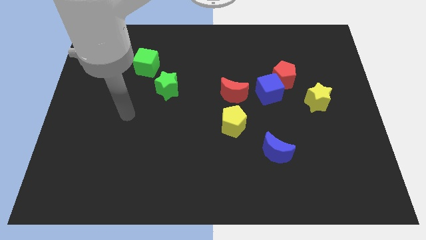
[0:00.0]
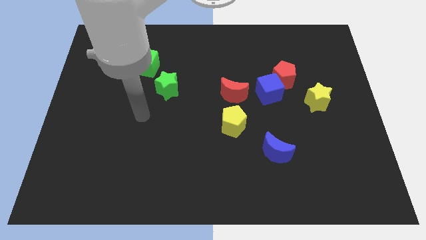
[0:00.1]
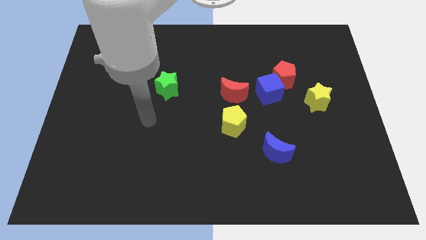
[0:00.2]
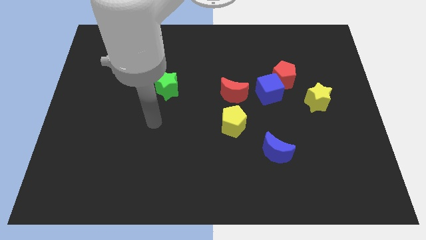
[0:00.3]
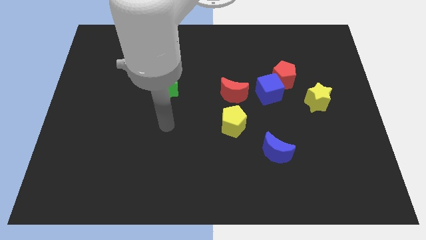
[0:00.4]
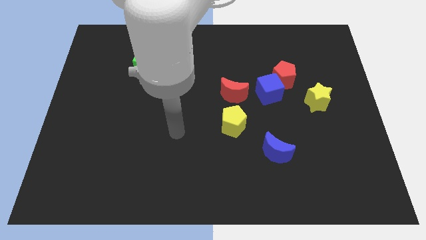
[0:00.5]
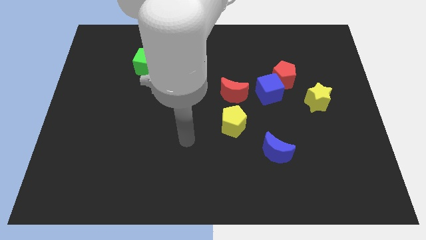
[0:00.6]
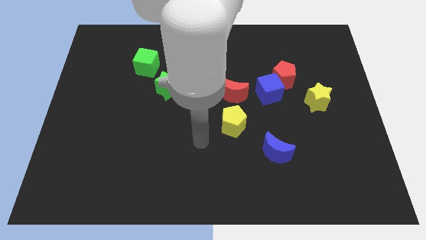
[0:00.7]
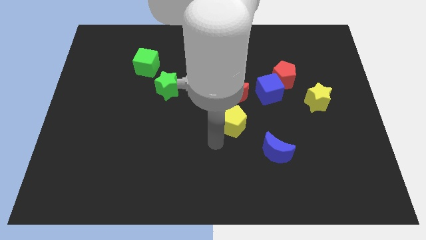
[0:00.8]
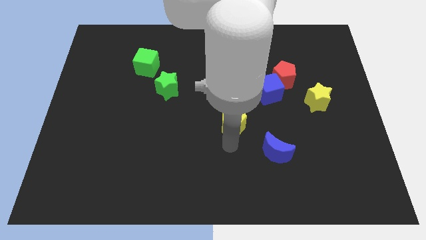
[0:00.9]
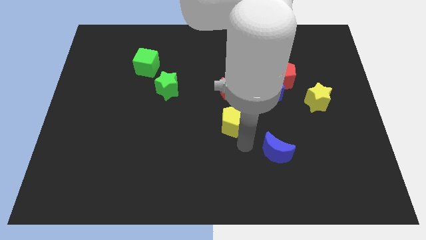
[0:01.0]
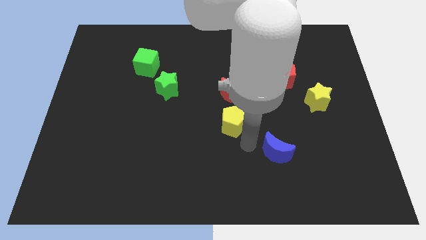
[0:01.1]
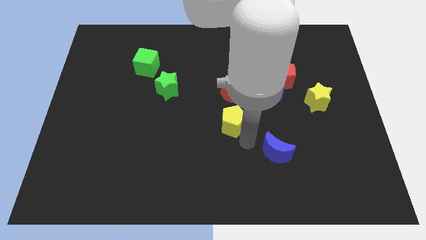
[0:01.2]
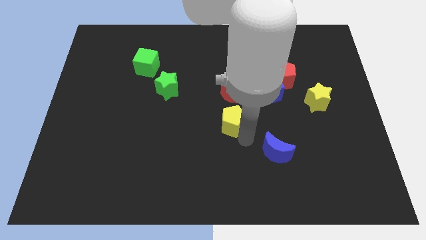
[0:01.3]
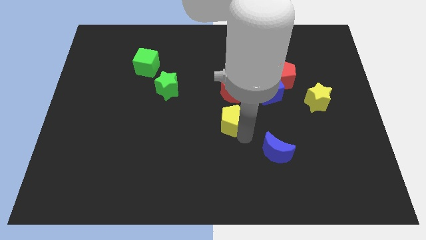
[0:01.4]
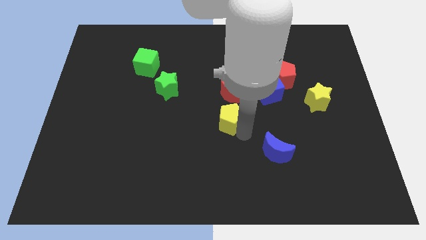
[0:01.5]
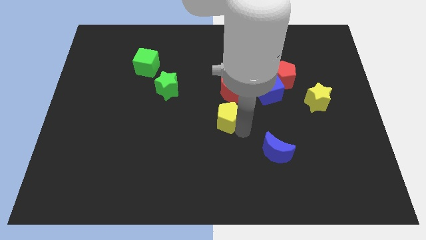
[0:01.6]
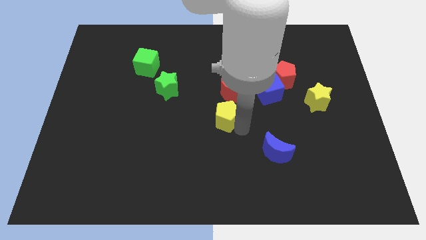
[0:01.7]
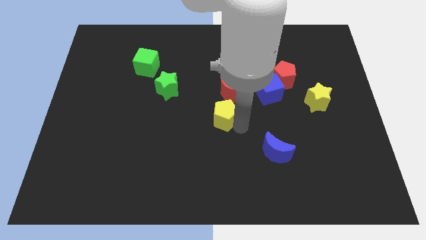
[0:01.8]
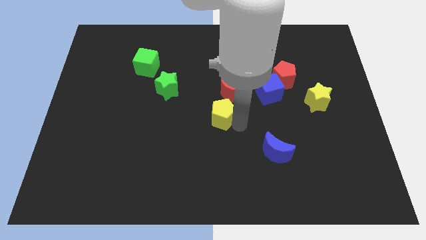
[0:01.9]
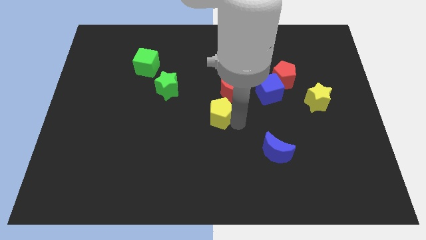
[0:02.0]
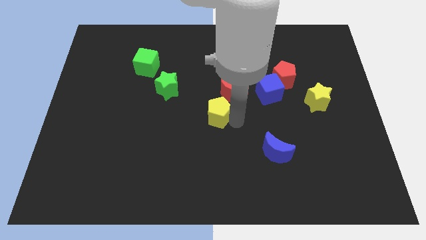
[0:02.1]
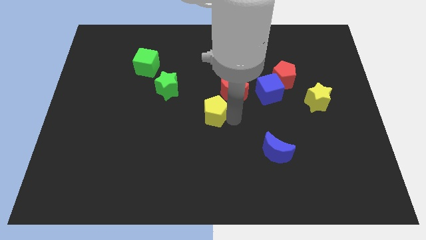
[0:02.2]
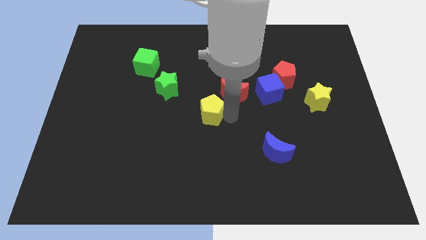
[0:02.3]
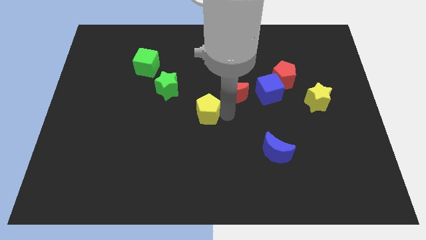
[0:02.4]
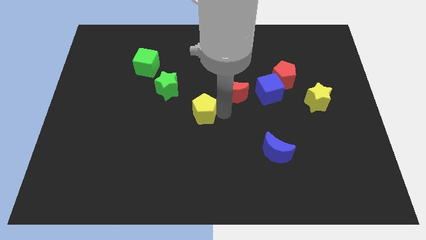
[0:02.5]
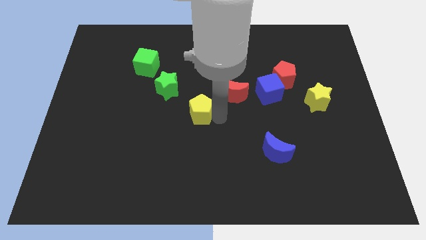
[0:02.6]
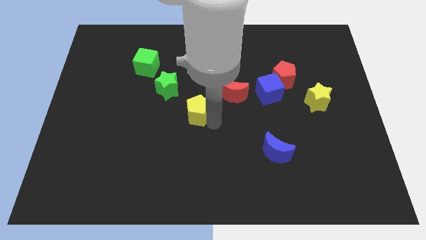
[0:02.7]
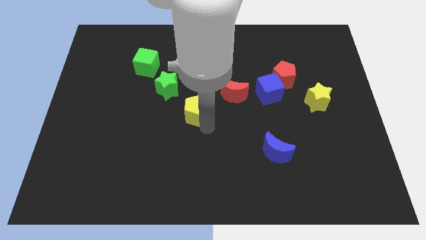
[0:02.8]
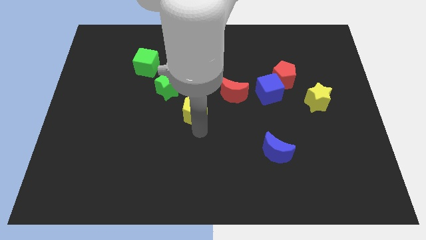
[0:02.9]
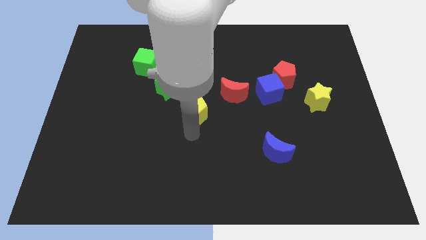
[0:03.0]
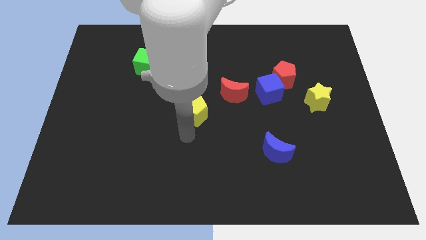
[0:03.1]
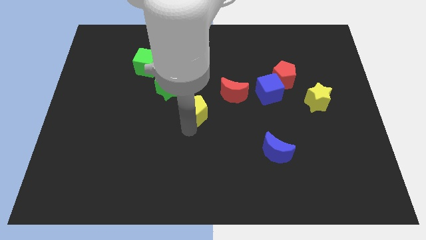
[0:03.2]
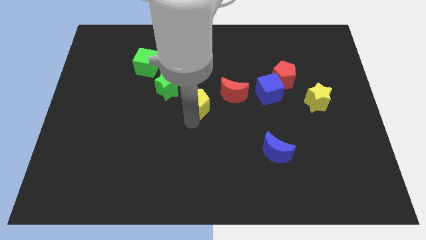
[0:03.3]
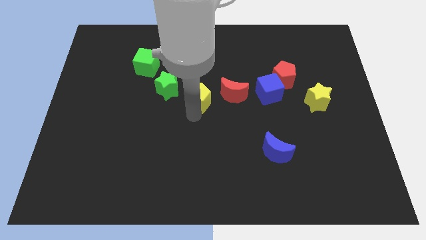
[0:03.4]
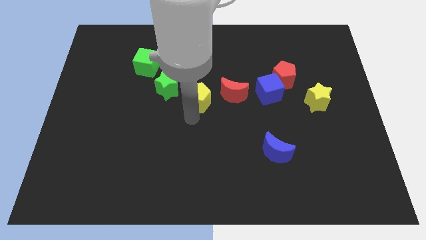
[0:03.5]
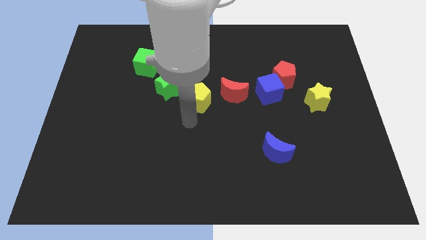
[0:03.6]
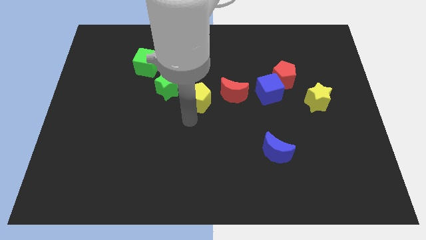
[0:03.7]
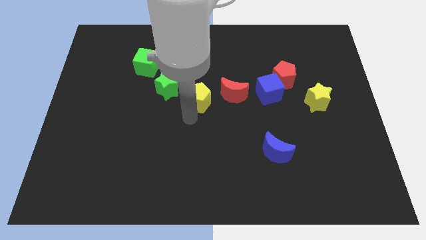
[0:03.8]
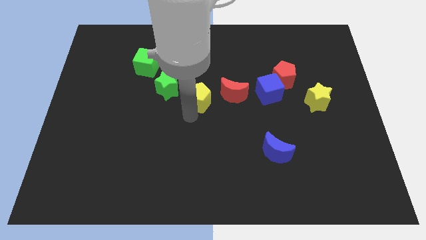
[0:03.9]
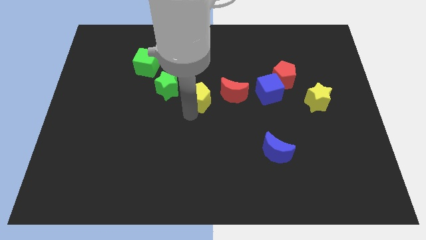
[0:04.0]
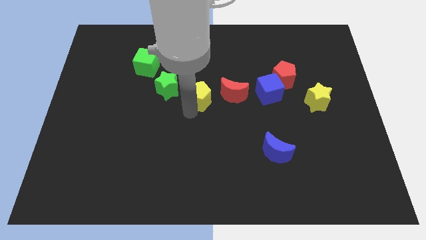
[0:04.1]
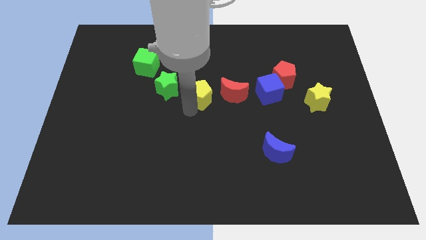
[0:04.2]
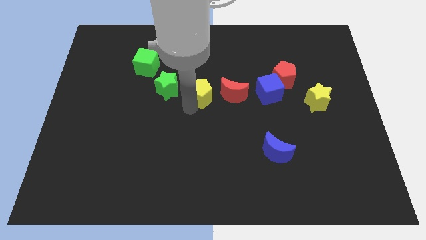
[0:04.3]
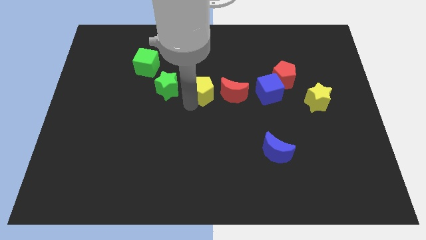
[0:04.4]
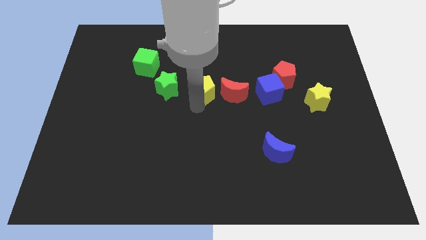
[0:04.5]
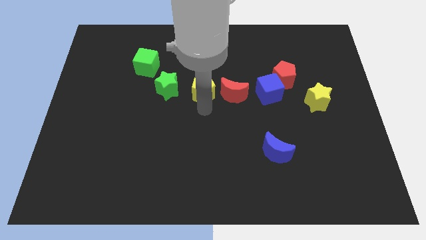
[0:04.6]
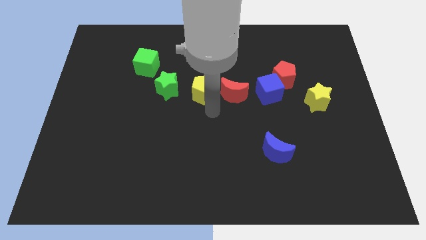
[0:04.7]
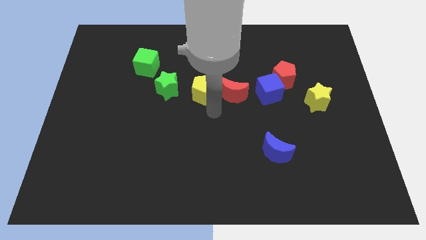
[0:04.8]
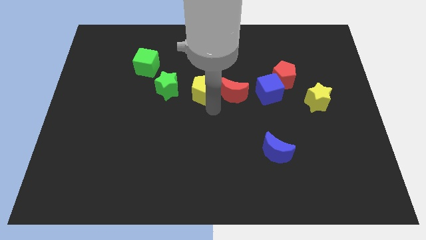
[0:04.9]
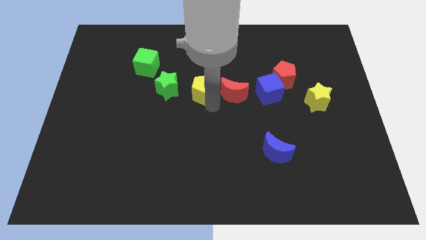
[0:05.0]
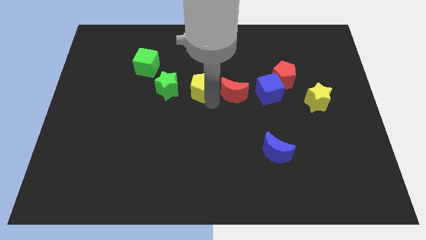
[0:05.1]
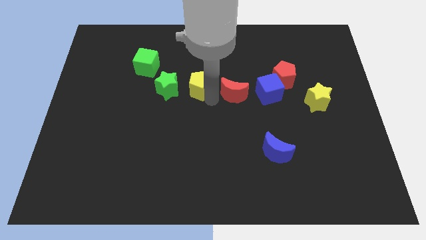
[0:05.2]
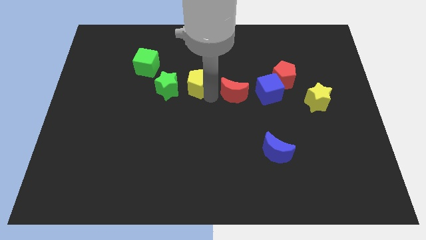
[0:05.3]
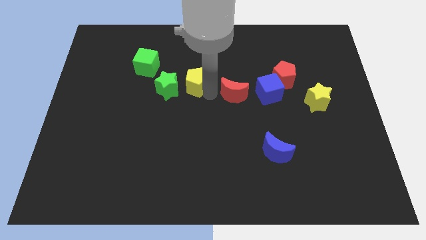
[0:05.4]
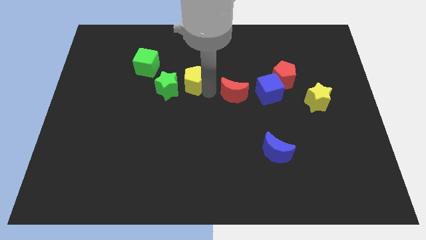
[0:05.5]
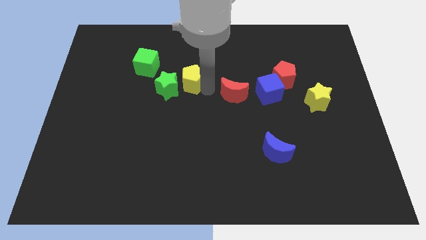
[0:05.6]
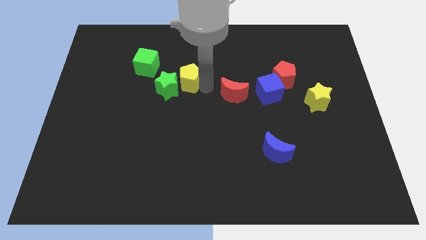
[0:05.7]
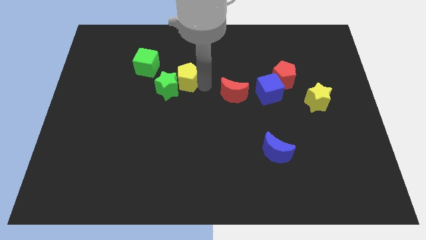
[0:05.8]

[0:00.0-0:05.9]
put the yellow pentagon to the right of the green cube
